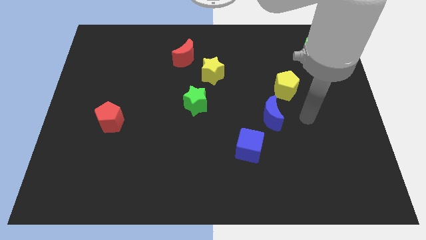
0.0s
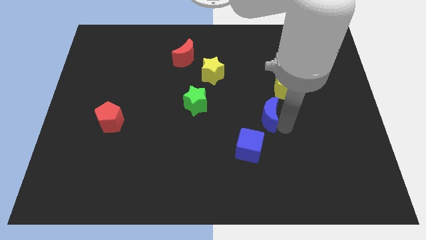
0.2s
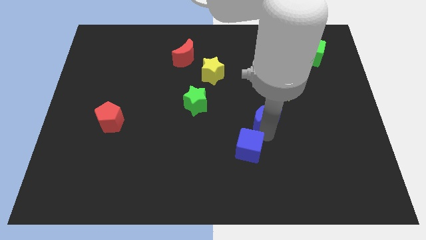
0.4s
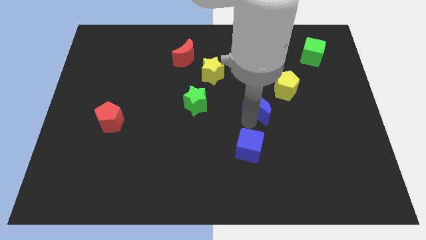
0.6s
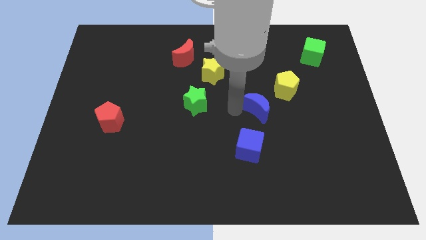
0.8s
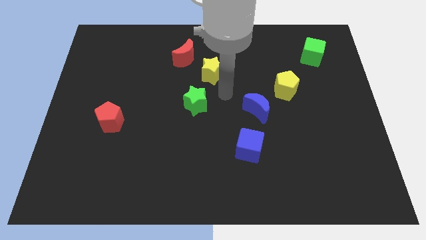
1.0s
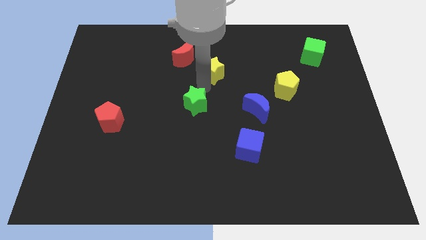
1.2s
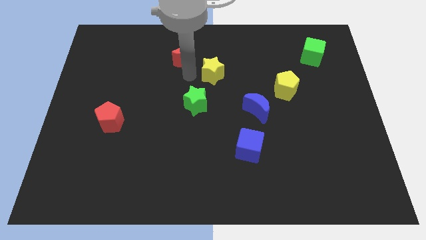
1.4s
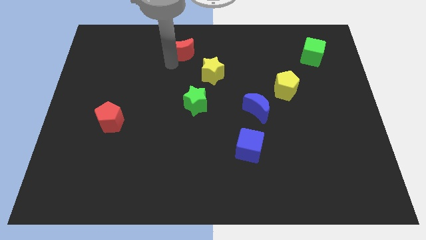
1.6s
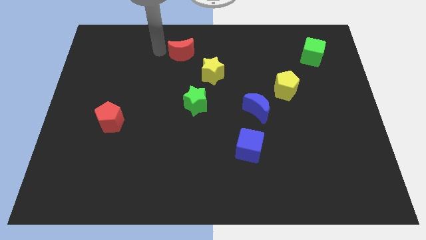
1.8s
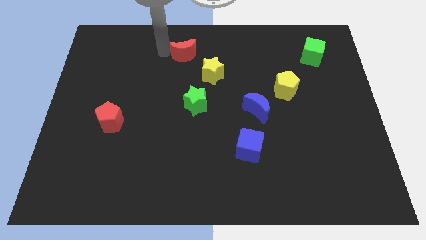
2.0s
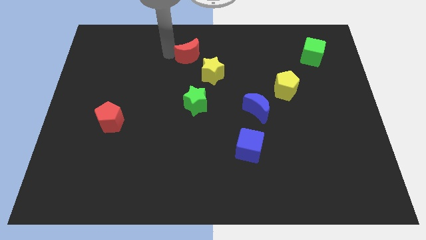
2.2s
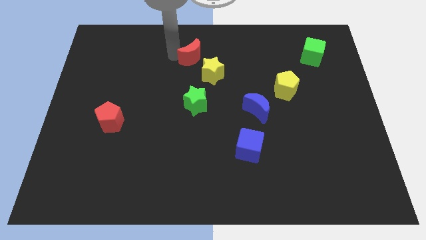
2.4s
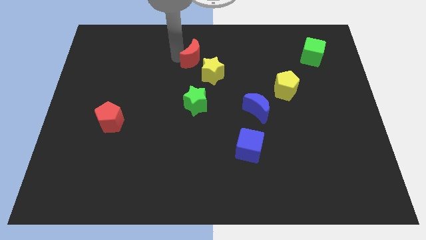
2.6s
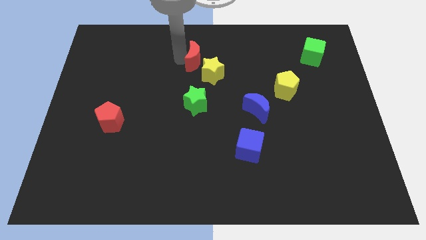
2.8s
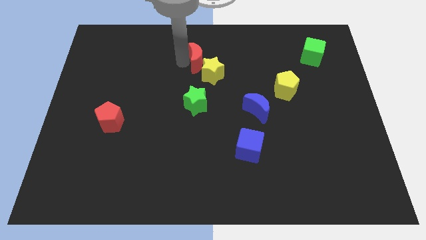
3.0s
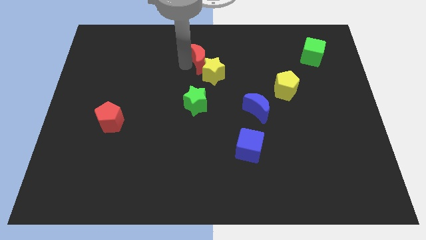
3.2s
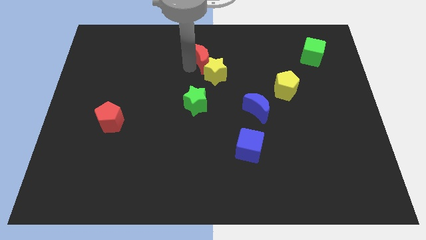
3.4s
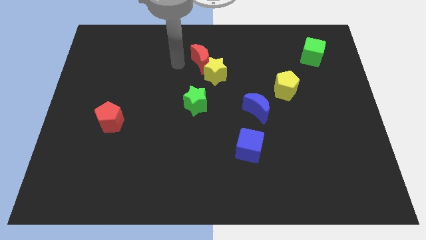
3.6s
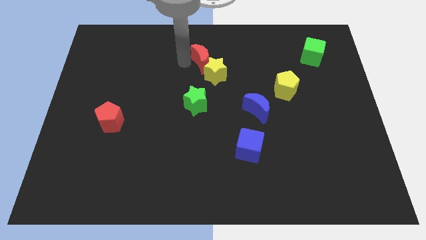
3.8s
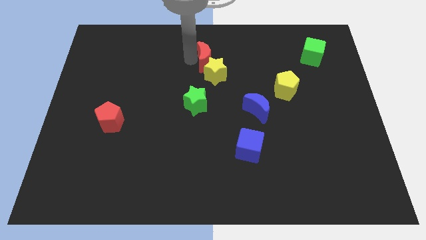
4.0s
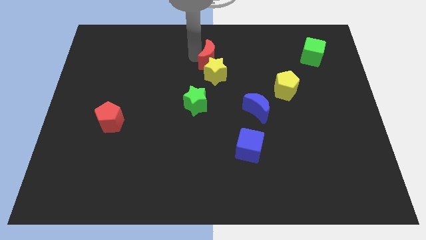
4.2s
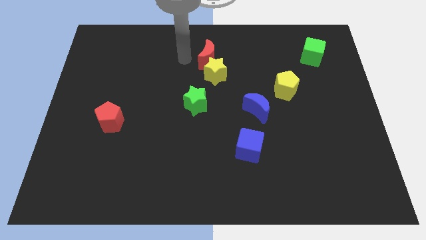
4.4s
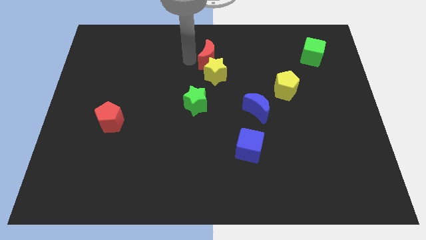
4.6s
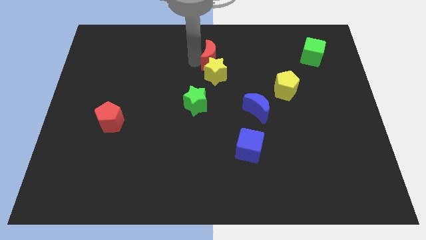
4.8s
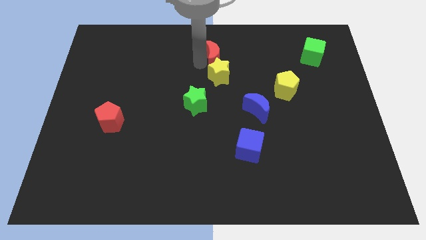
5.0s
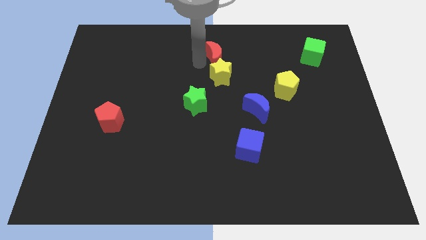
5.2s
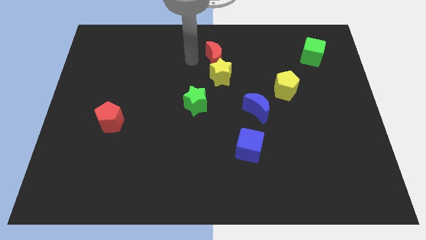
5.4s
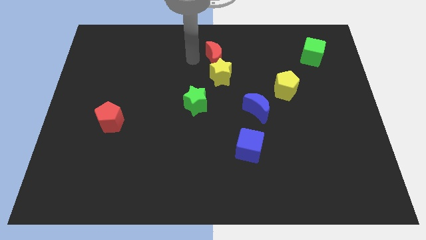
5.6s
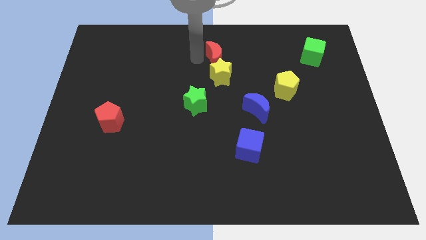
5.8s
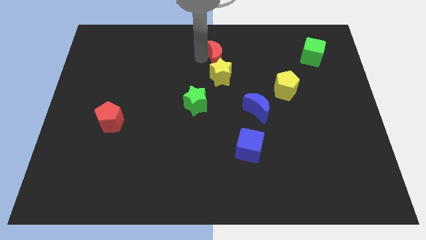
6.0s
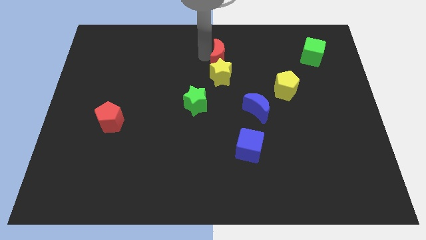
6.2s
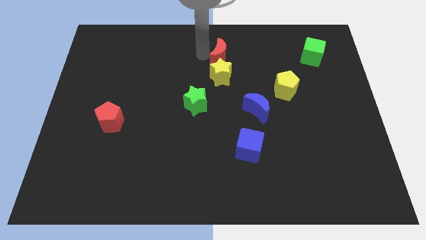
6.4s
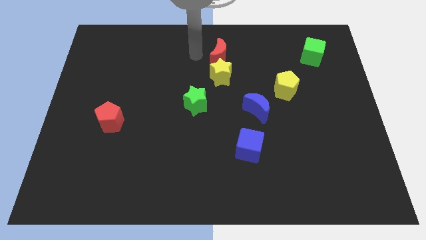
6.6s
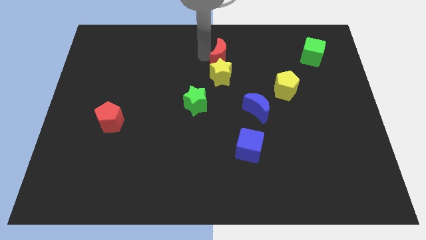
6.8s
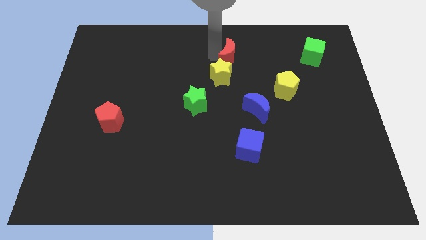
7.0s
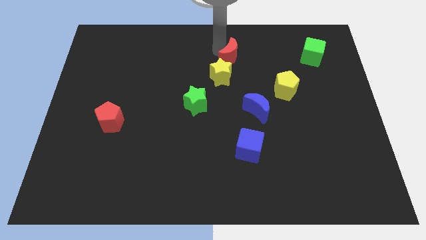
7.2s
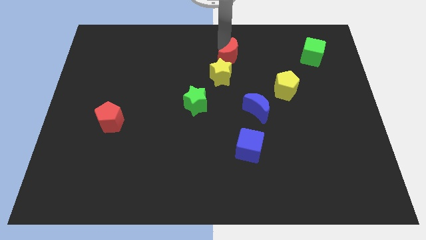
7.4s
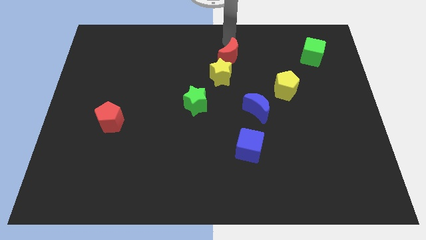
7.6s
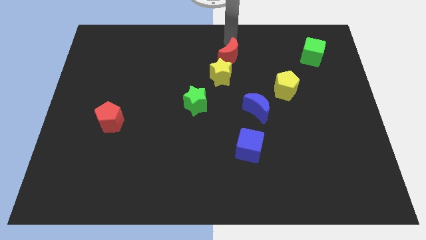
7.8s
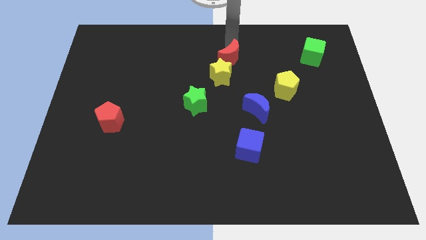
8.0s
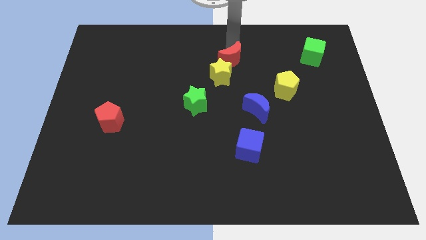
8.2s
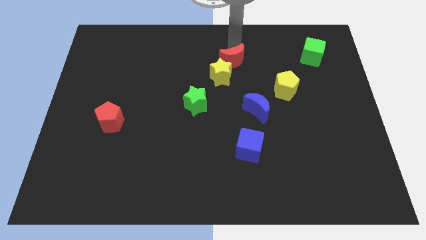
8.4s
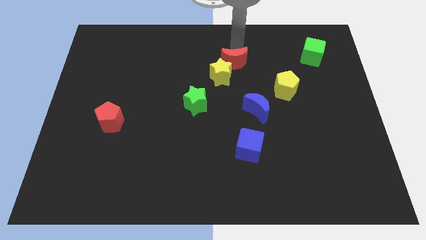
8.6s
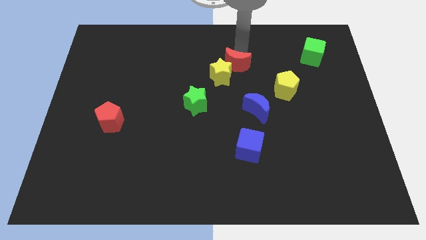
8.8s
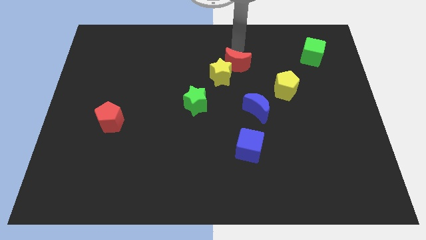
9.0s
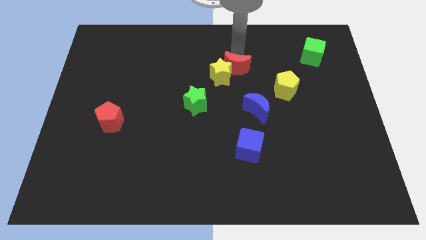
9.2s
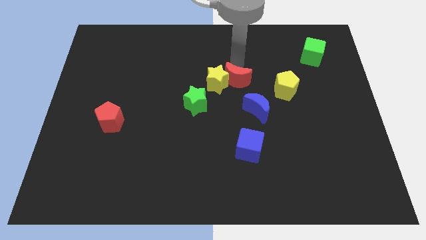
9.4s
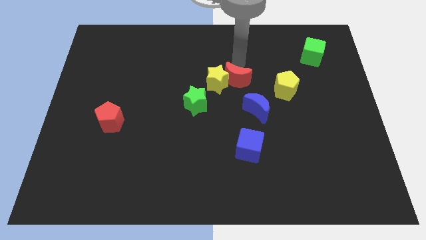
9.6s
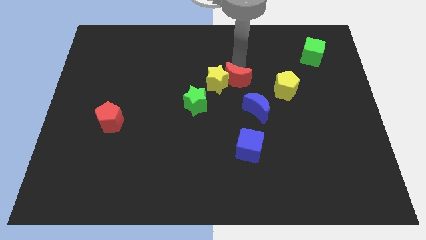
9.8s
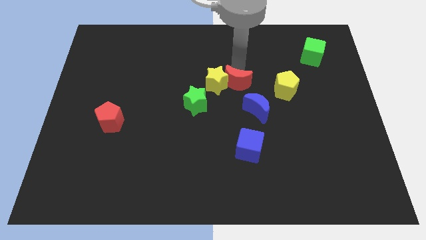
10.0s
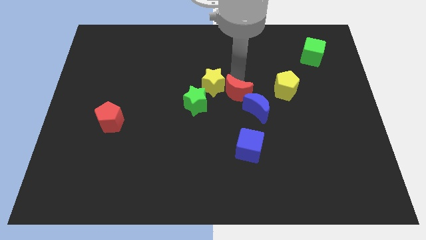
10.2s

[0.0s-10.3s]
put the red moon just right of the green star

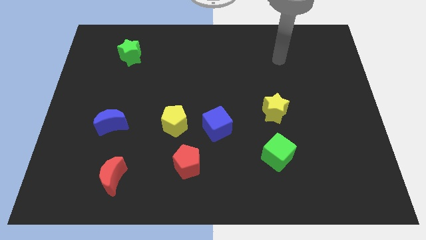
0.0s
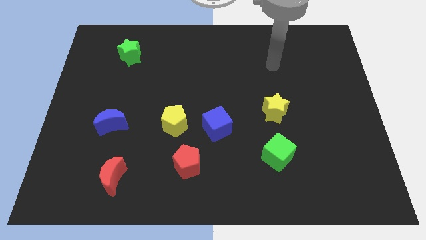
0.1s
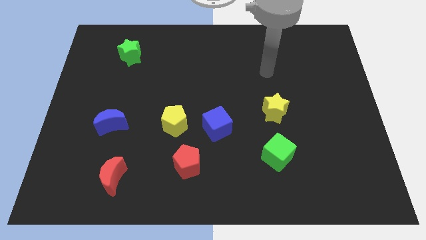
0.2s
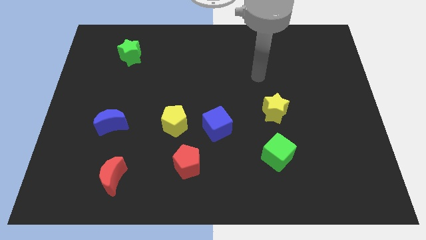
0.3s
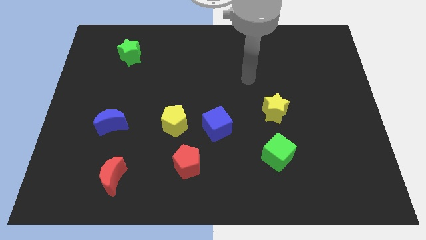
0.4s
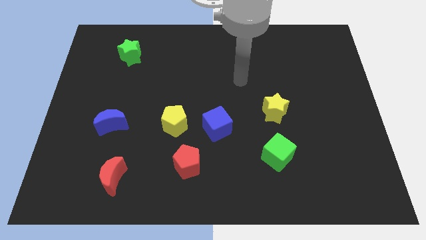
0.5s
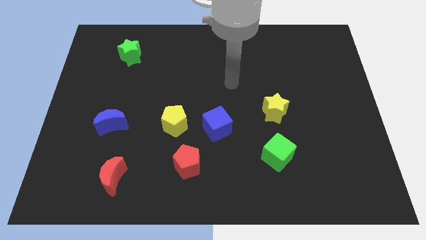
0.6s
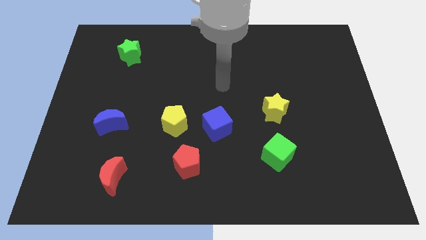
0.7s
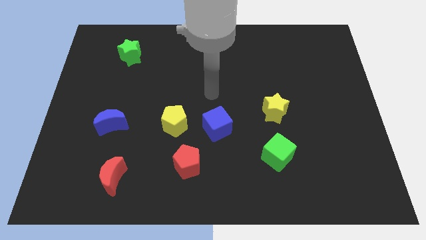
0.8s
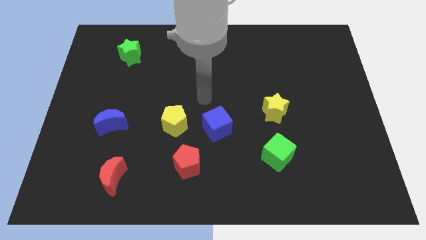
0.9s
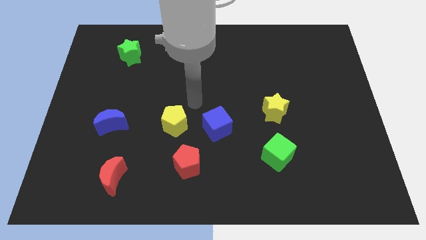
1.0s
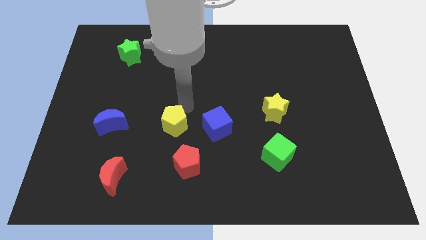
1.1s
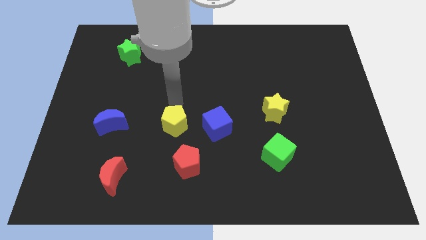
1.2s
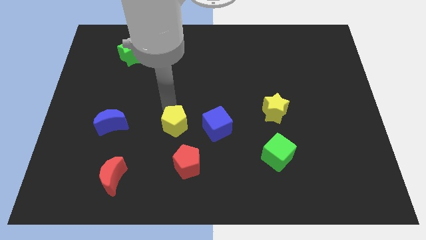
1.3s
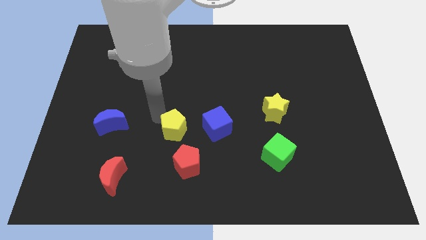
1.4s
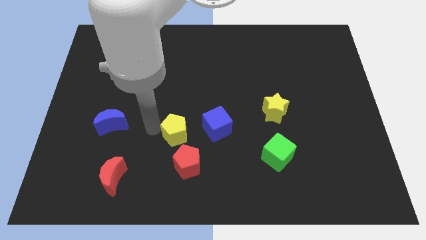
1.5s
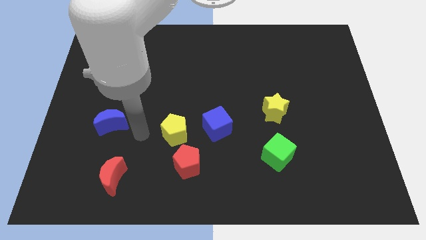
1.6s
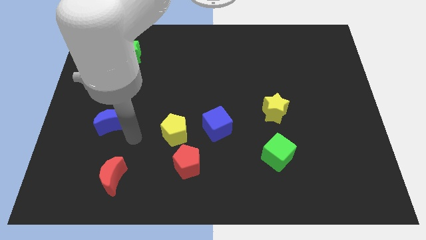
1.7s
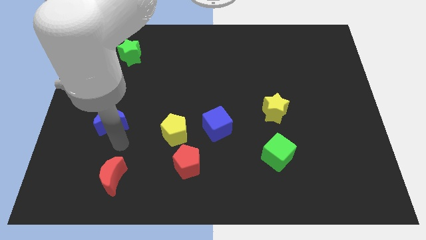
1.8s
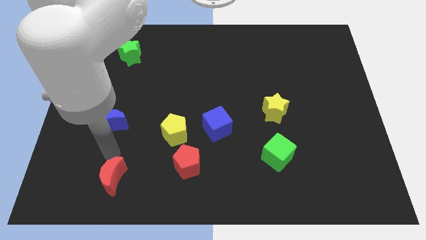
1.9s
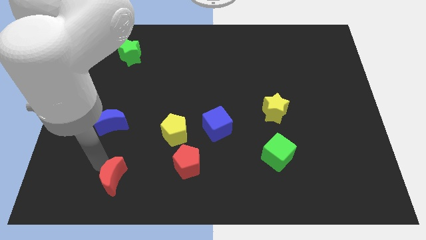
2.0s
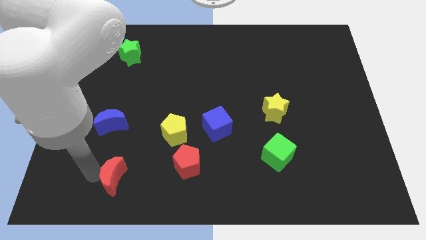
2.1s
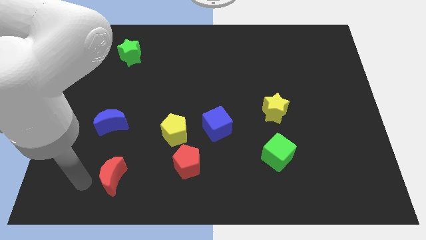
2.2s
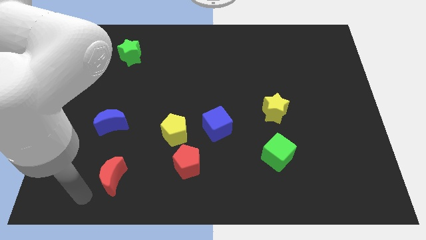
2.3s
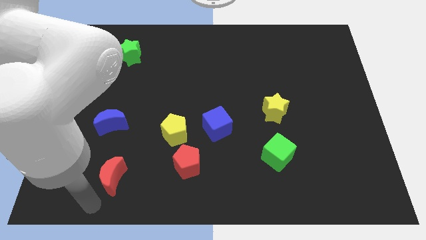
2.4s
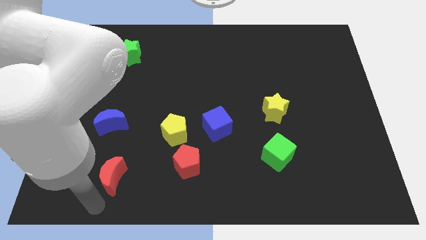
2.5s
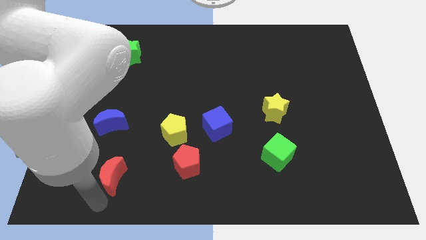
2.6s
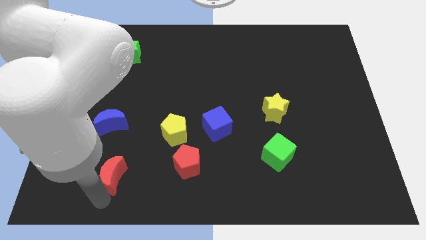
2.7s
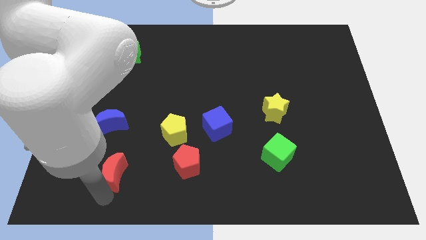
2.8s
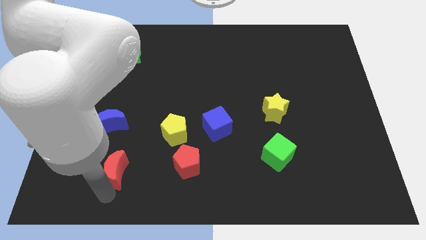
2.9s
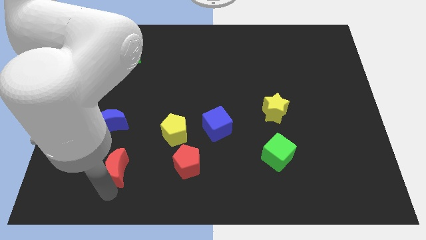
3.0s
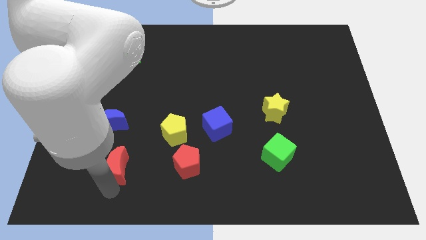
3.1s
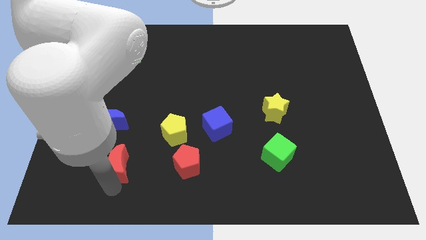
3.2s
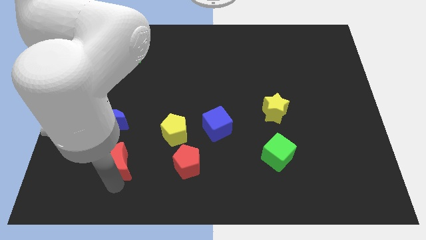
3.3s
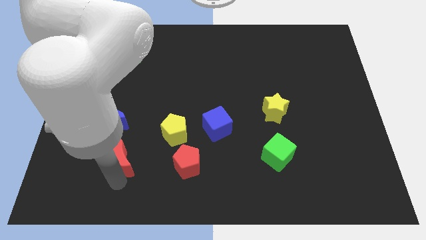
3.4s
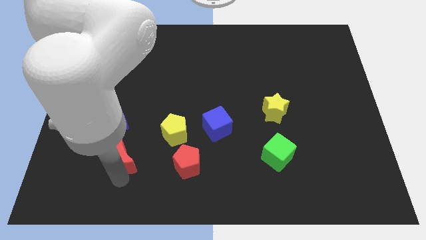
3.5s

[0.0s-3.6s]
push the red moon to the bottom left of the yellow pentagon
